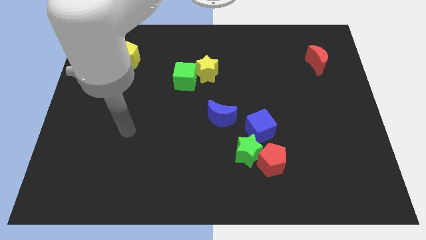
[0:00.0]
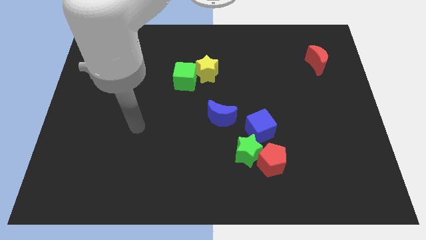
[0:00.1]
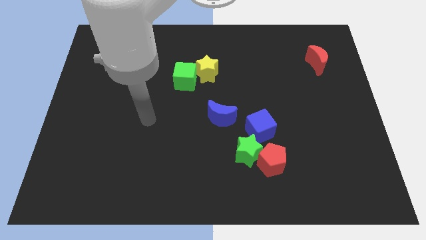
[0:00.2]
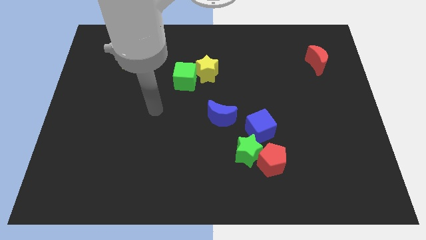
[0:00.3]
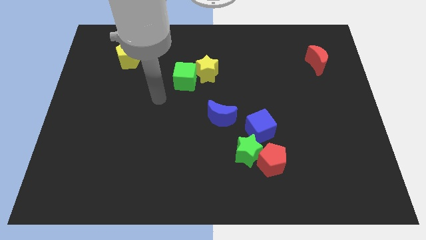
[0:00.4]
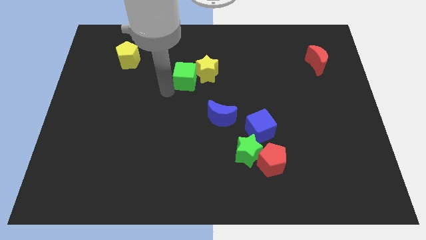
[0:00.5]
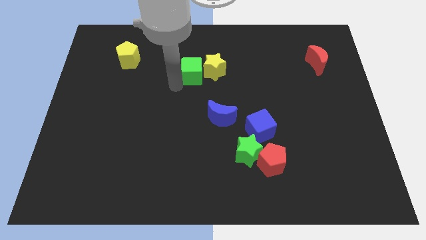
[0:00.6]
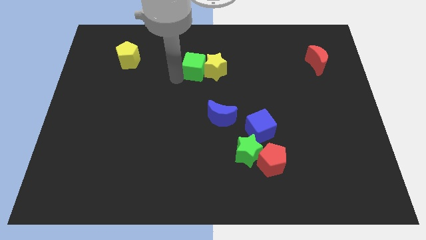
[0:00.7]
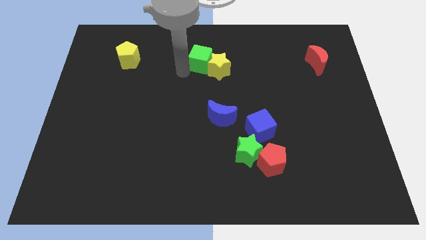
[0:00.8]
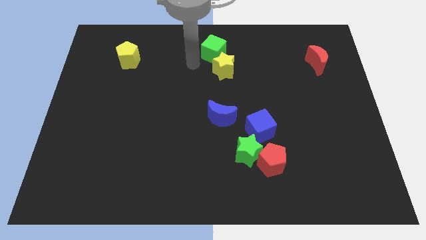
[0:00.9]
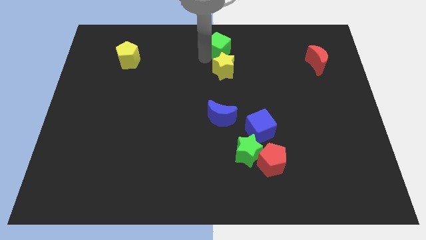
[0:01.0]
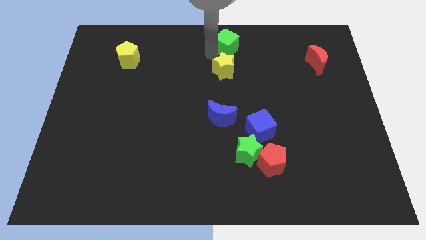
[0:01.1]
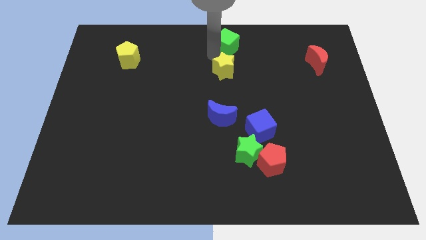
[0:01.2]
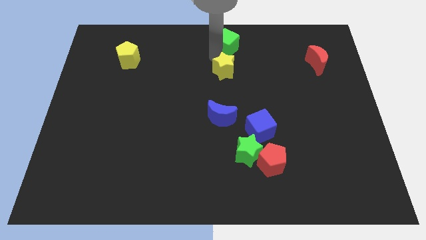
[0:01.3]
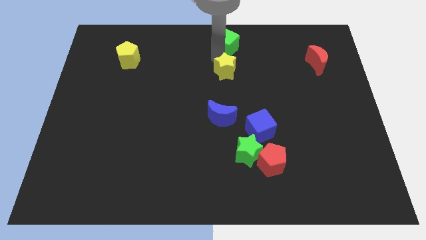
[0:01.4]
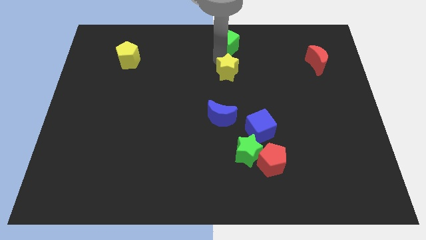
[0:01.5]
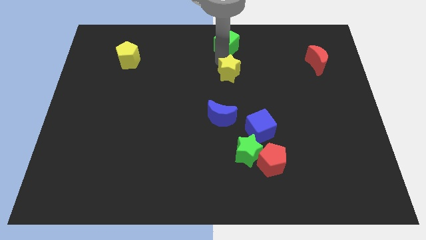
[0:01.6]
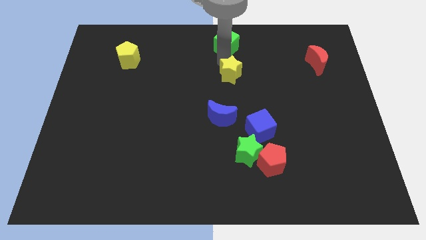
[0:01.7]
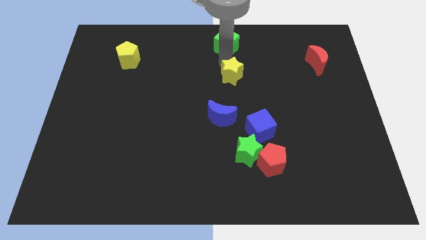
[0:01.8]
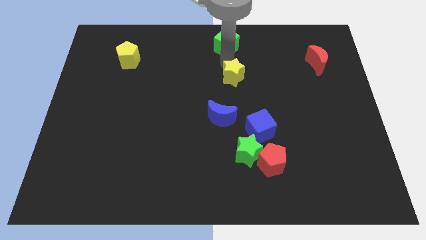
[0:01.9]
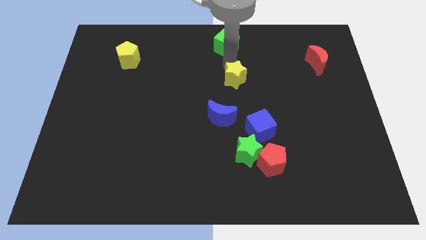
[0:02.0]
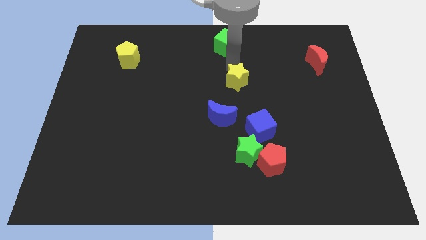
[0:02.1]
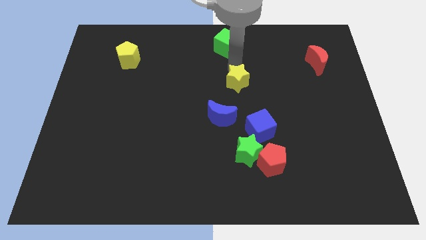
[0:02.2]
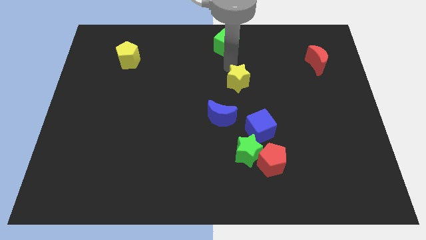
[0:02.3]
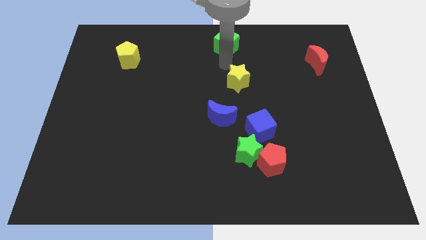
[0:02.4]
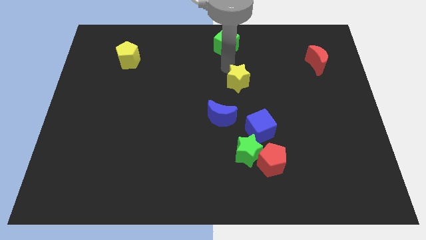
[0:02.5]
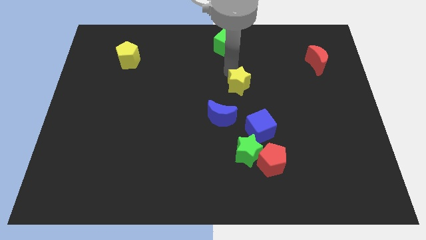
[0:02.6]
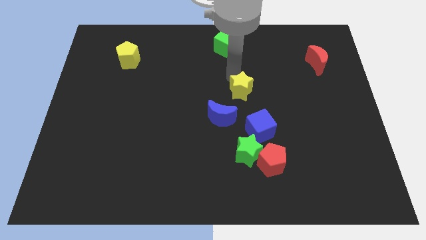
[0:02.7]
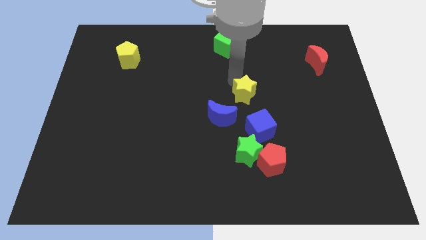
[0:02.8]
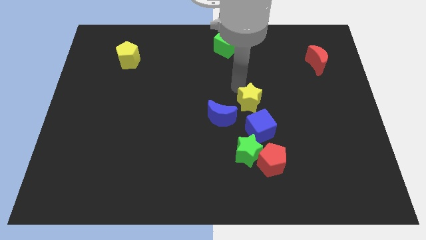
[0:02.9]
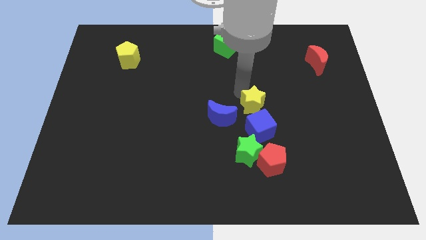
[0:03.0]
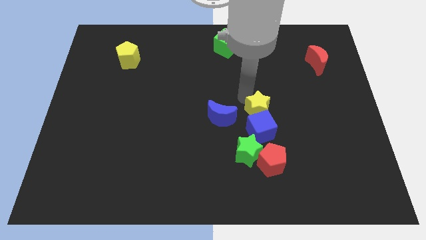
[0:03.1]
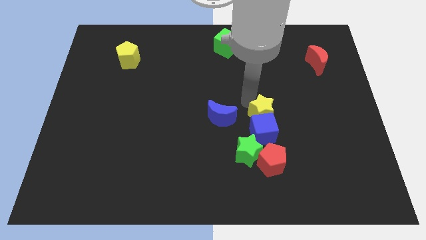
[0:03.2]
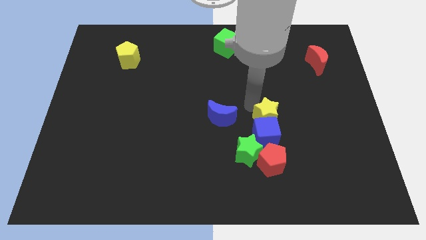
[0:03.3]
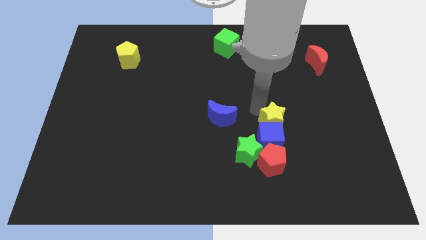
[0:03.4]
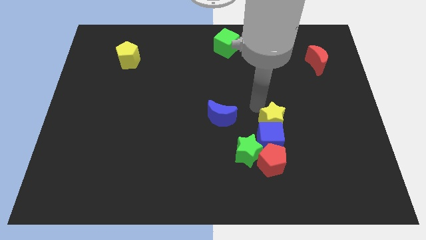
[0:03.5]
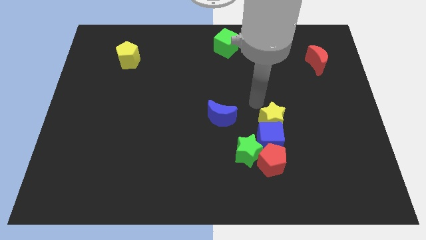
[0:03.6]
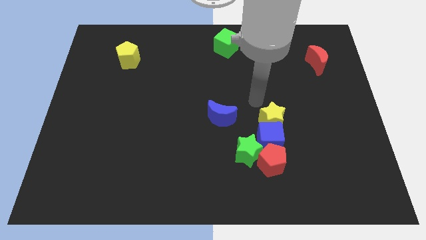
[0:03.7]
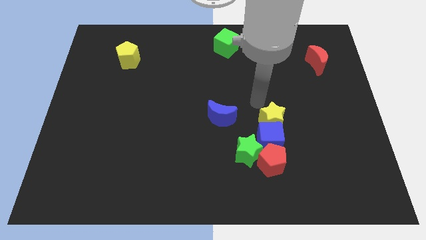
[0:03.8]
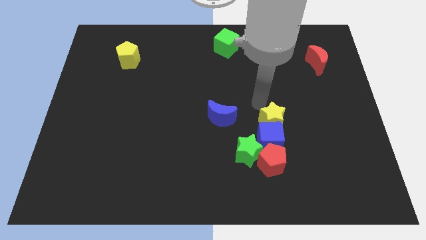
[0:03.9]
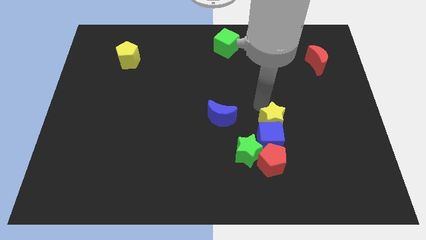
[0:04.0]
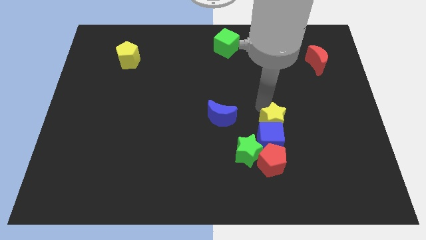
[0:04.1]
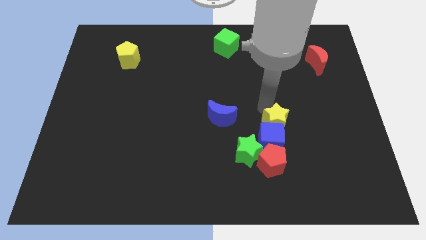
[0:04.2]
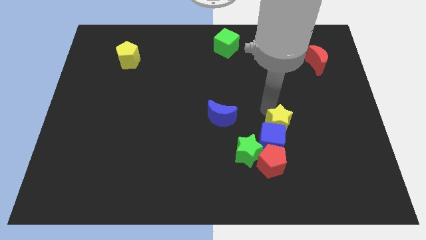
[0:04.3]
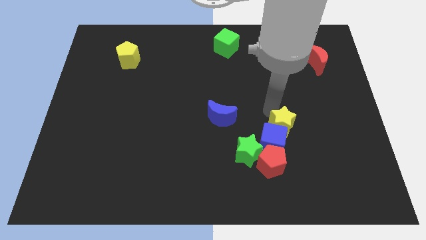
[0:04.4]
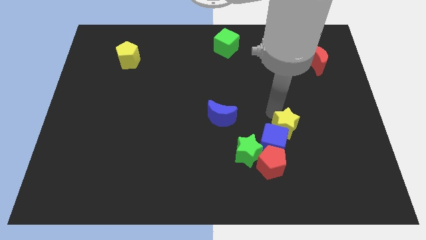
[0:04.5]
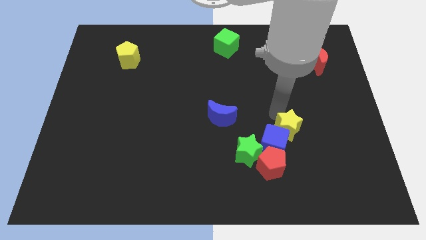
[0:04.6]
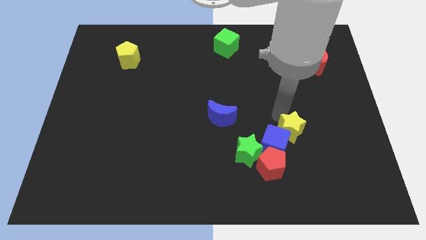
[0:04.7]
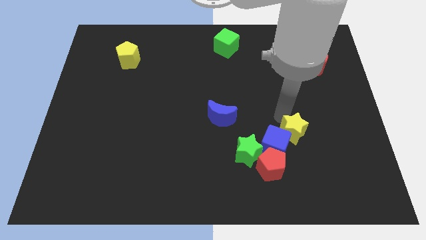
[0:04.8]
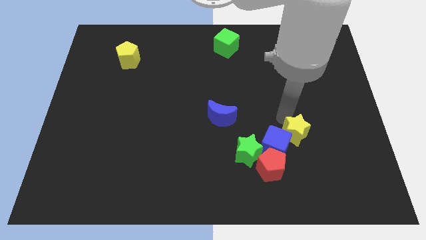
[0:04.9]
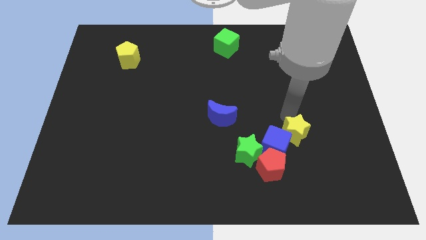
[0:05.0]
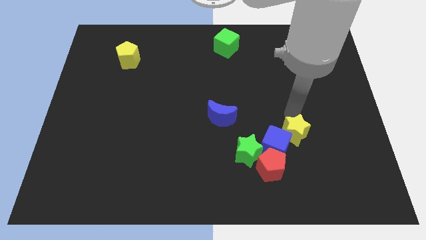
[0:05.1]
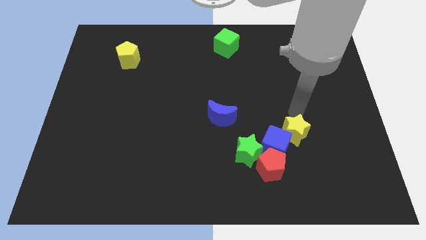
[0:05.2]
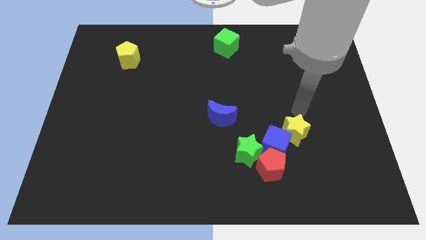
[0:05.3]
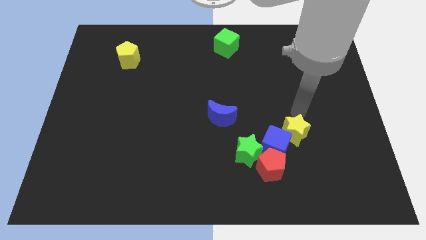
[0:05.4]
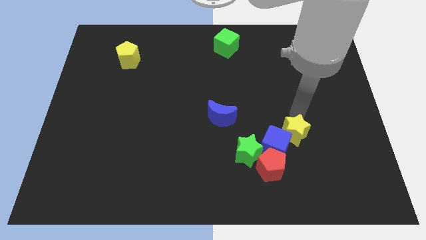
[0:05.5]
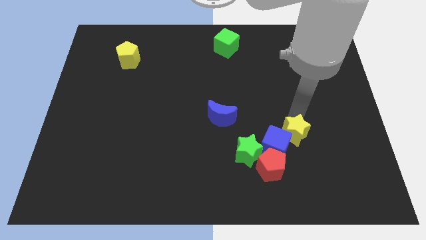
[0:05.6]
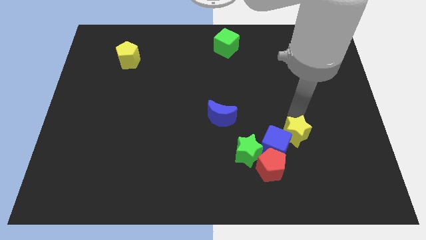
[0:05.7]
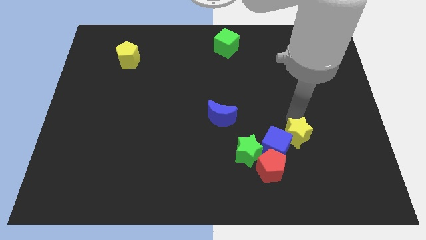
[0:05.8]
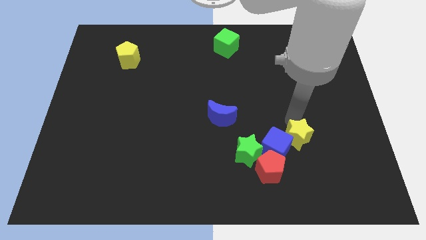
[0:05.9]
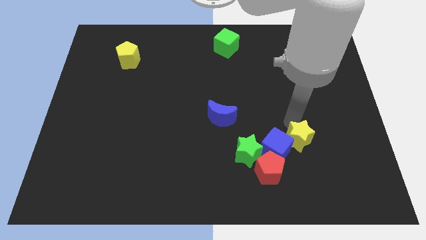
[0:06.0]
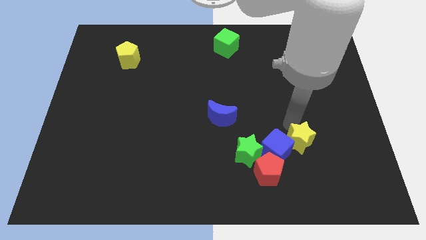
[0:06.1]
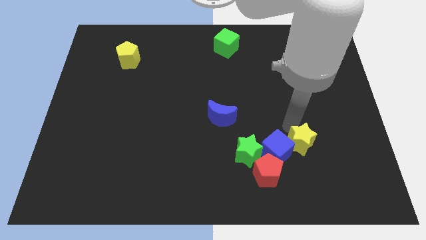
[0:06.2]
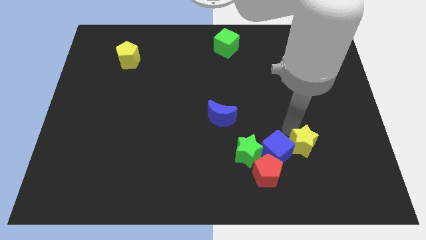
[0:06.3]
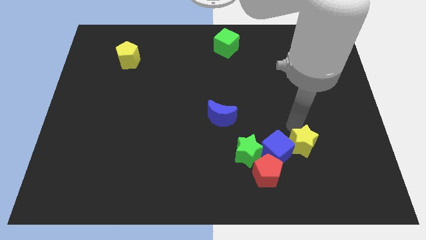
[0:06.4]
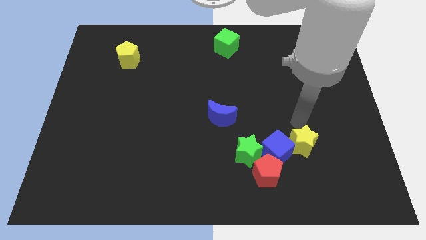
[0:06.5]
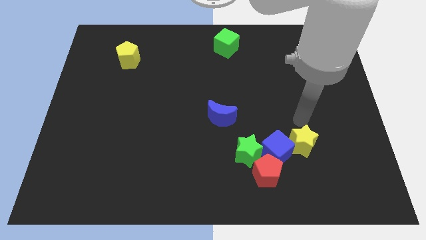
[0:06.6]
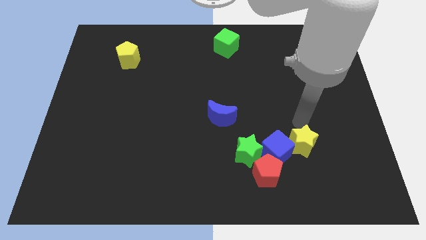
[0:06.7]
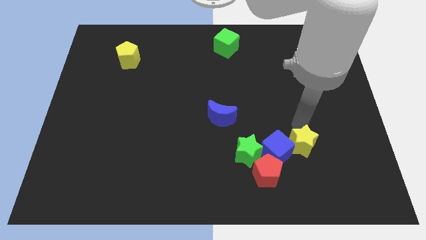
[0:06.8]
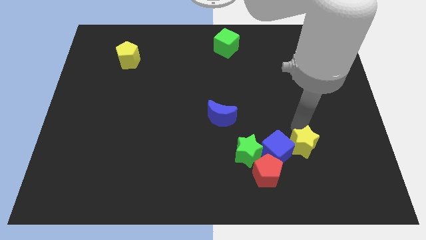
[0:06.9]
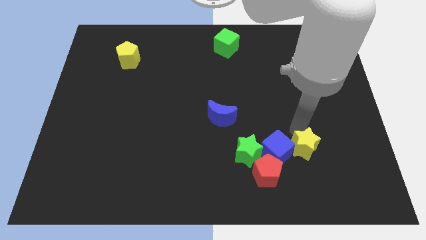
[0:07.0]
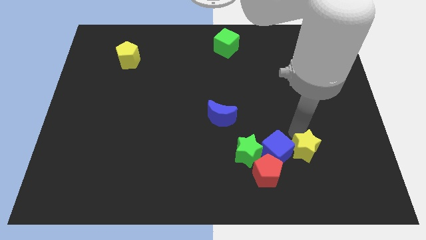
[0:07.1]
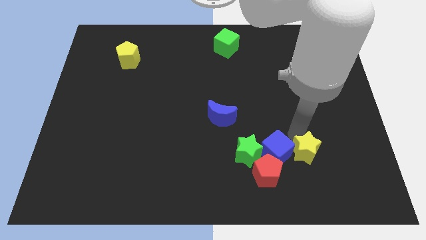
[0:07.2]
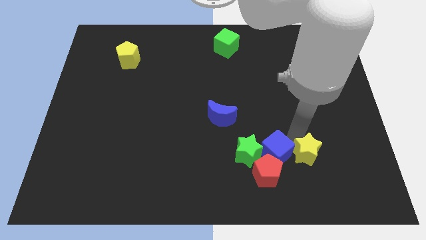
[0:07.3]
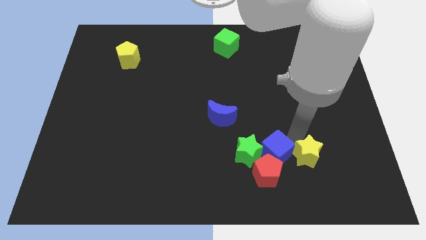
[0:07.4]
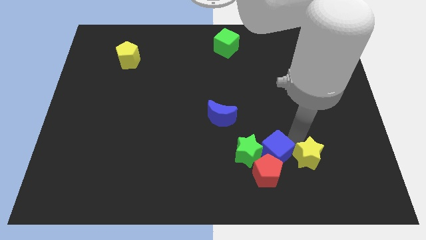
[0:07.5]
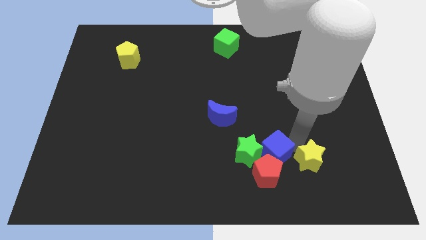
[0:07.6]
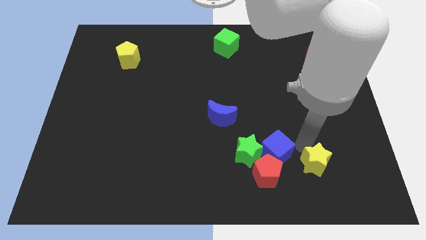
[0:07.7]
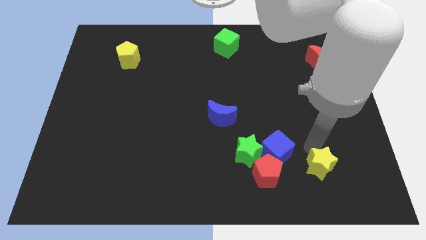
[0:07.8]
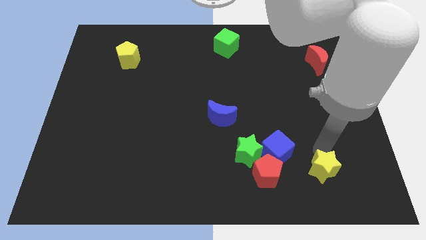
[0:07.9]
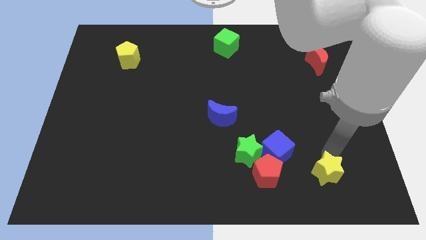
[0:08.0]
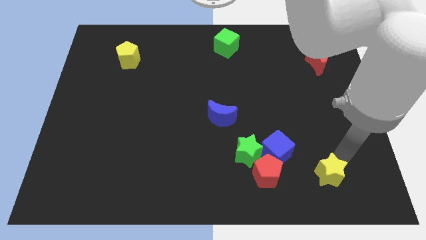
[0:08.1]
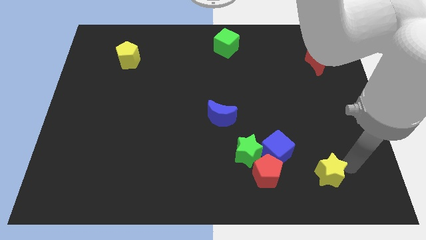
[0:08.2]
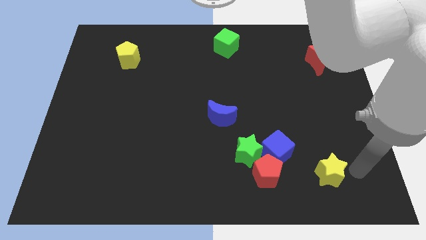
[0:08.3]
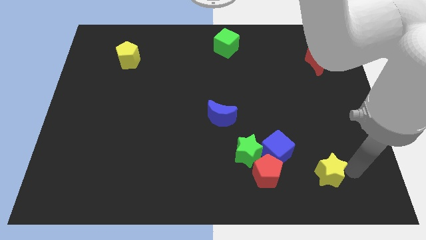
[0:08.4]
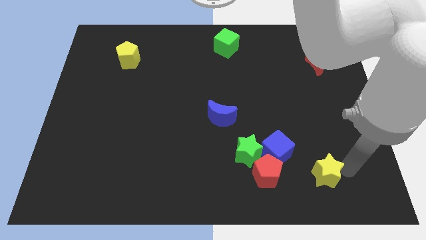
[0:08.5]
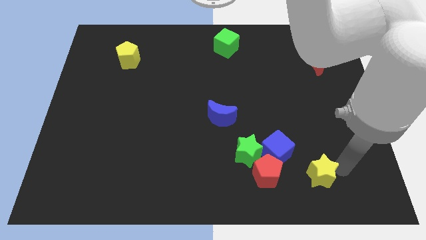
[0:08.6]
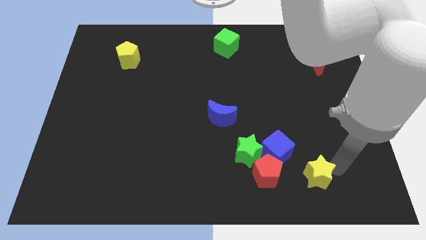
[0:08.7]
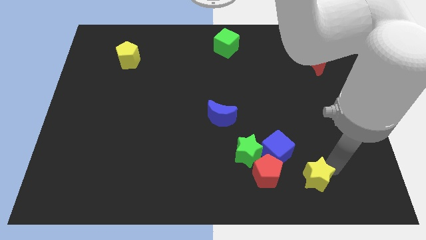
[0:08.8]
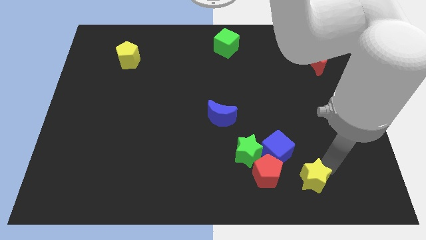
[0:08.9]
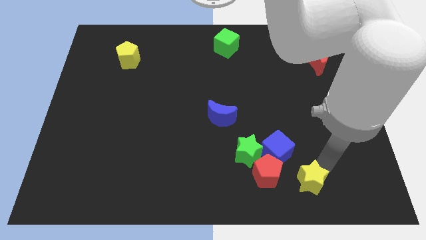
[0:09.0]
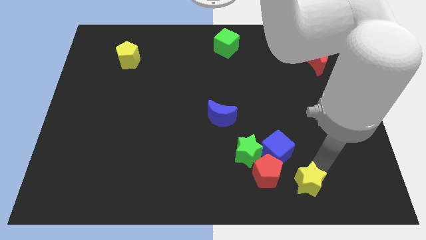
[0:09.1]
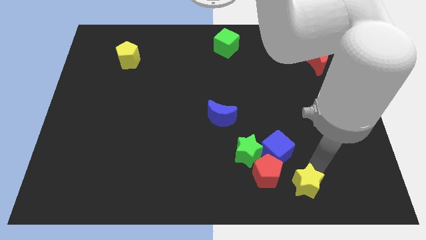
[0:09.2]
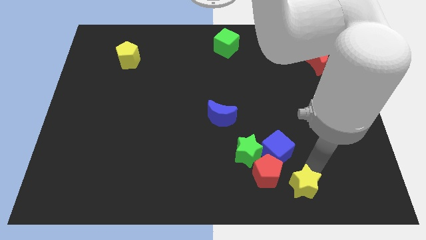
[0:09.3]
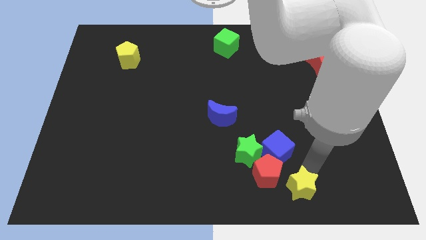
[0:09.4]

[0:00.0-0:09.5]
move the yellow star to the bottom right side of the green star
